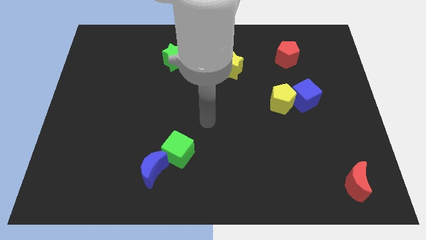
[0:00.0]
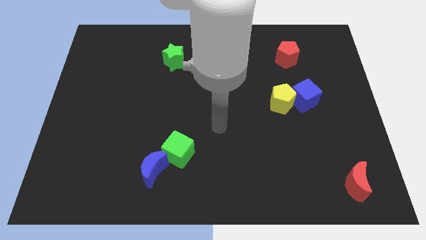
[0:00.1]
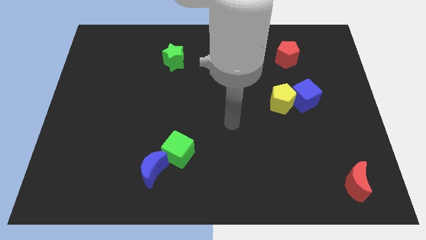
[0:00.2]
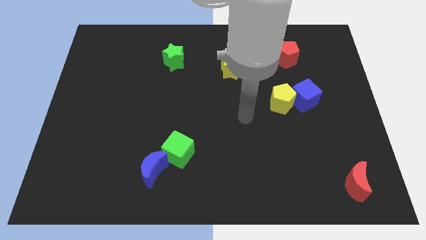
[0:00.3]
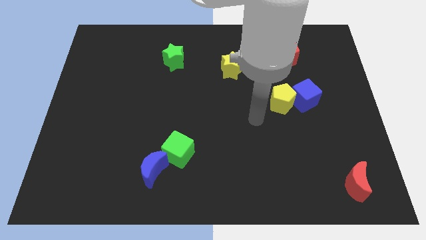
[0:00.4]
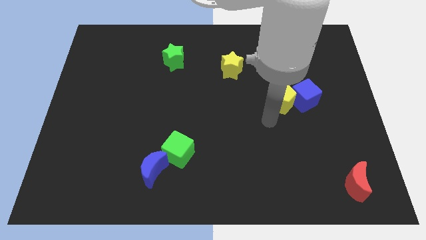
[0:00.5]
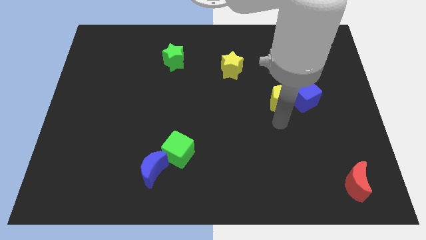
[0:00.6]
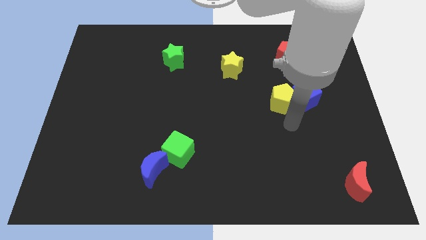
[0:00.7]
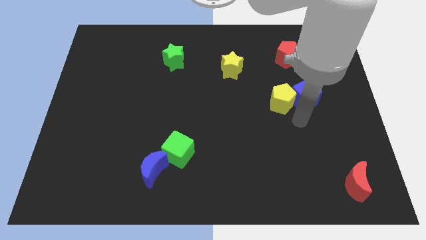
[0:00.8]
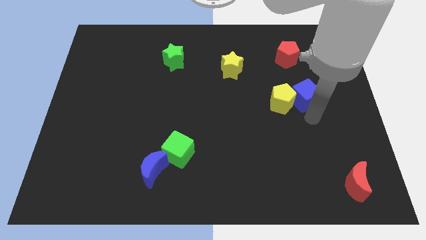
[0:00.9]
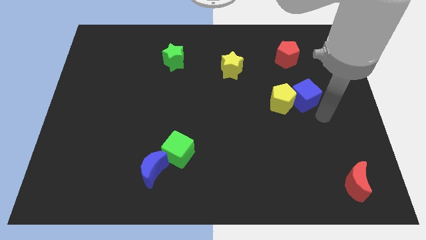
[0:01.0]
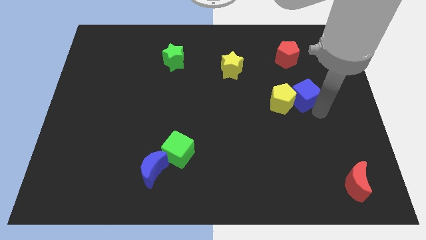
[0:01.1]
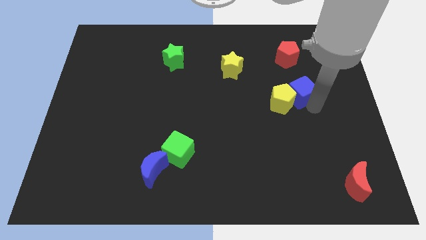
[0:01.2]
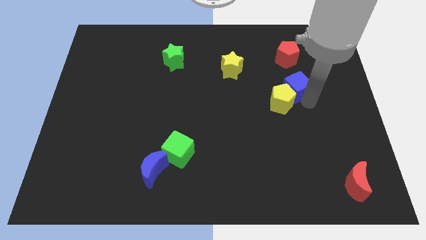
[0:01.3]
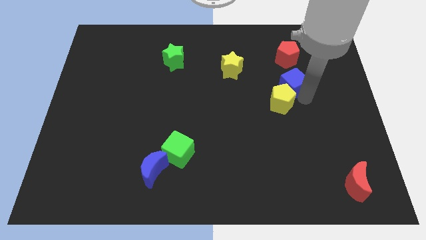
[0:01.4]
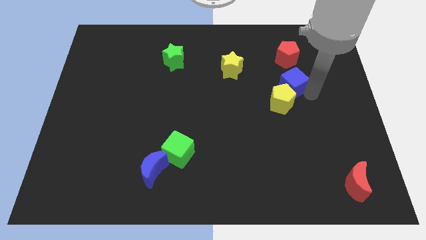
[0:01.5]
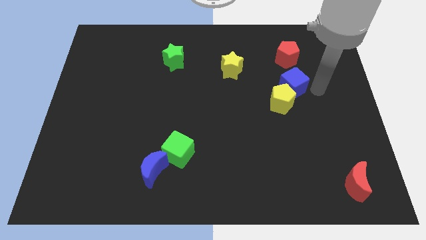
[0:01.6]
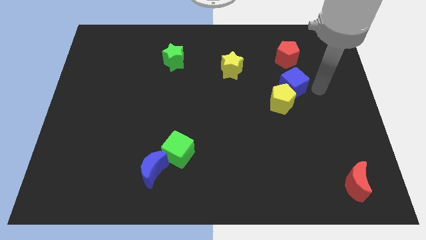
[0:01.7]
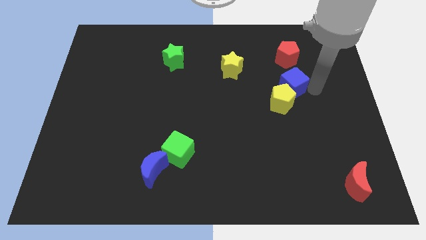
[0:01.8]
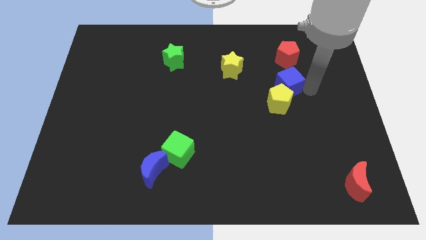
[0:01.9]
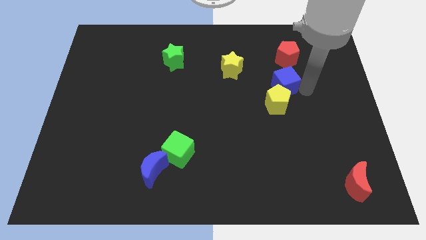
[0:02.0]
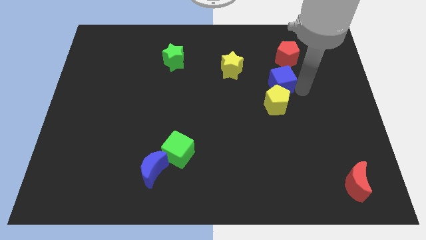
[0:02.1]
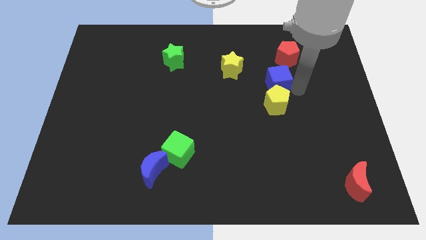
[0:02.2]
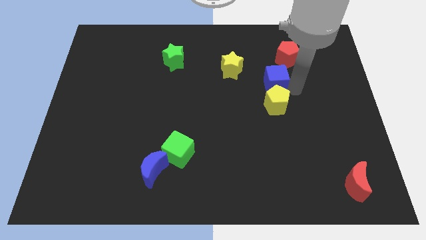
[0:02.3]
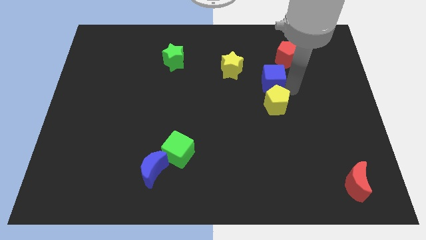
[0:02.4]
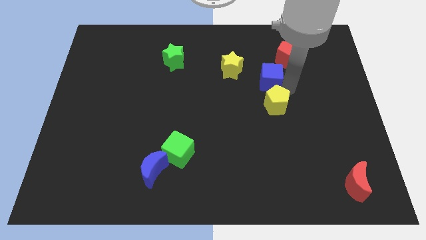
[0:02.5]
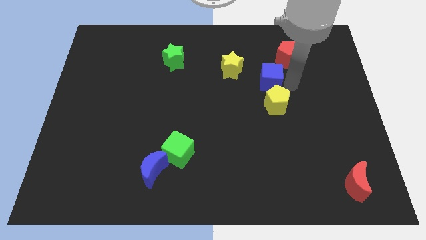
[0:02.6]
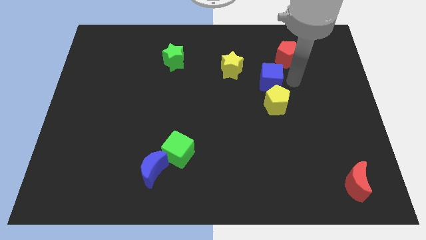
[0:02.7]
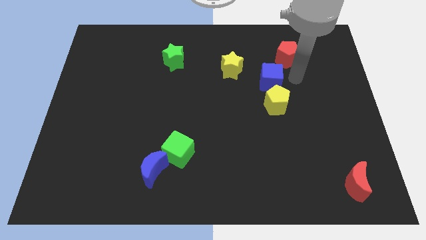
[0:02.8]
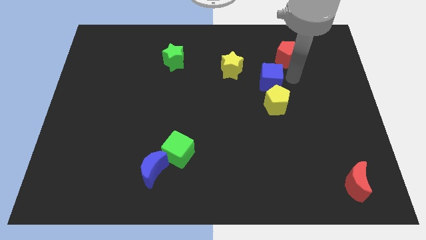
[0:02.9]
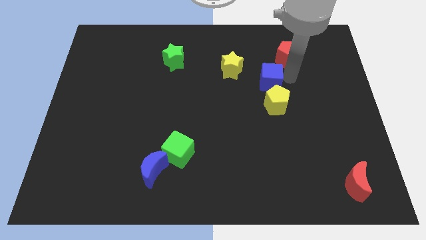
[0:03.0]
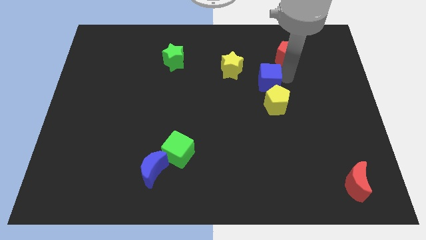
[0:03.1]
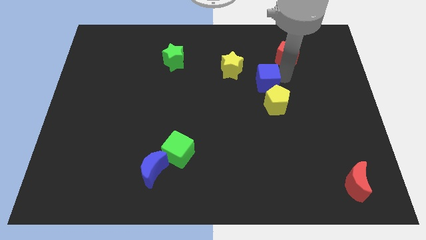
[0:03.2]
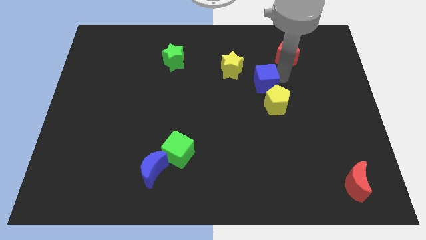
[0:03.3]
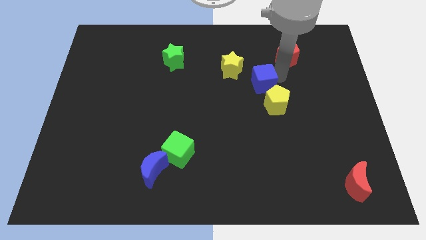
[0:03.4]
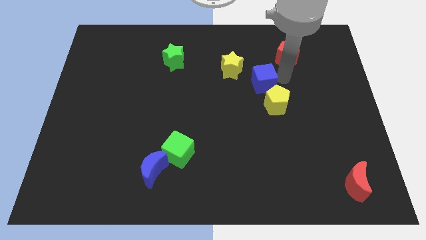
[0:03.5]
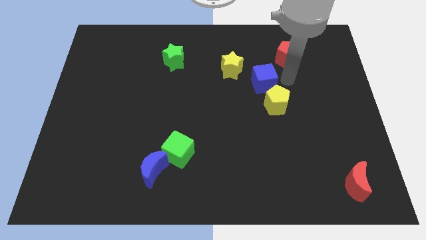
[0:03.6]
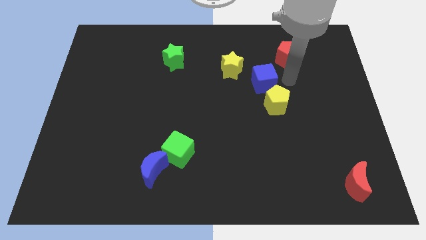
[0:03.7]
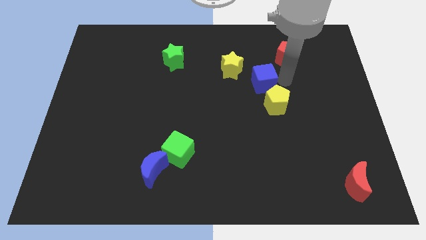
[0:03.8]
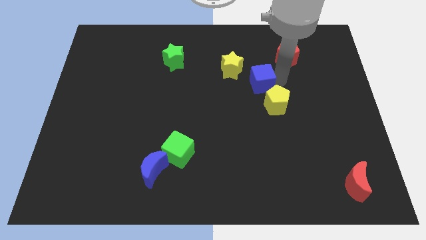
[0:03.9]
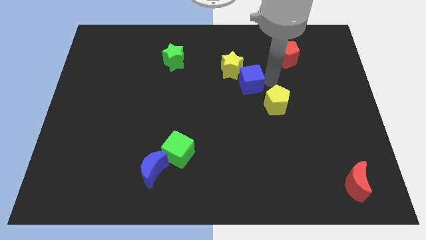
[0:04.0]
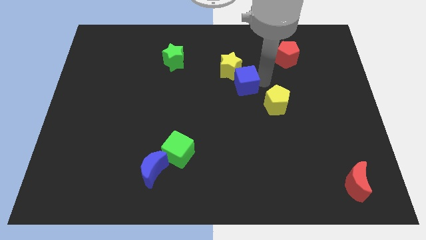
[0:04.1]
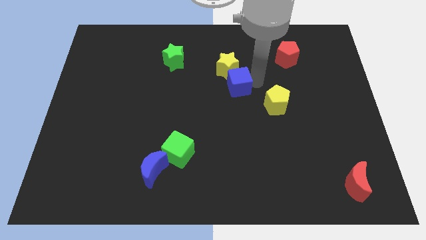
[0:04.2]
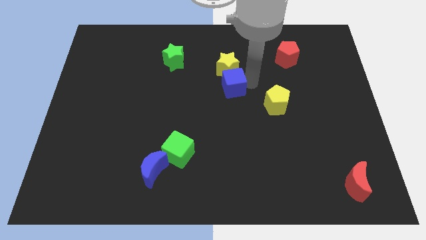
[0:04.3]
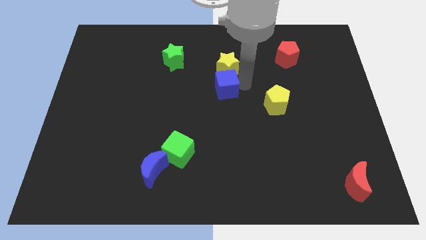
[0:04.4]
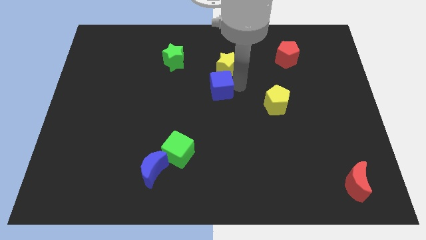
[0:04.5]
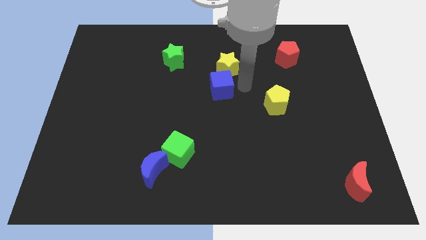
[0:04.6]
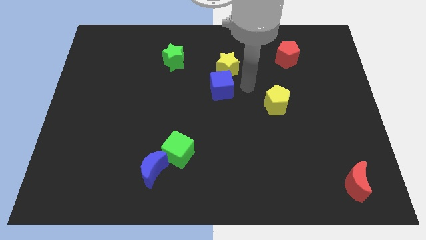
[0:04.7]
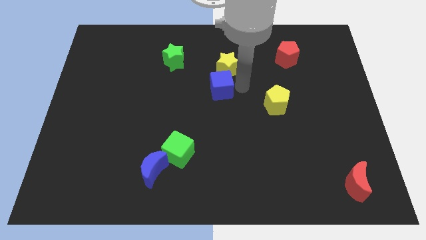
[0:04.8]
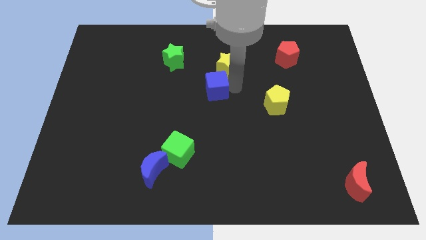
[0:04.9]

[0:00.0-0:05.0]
push the blue cube left

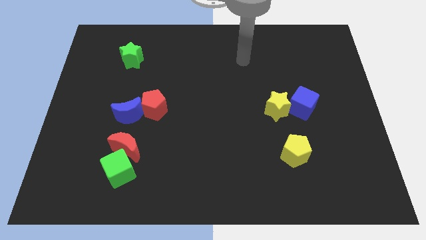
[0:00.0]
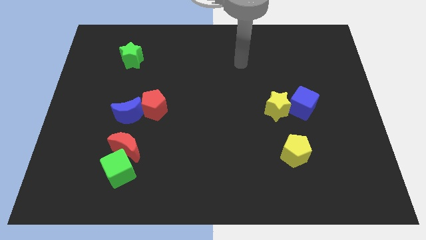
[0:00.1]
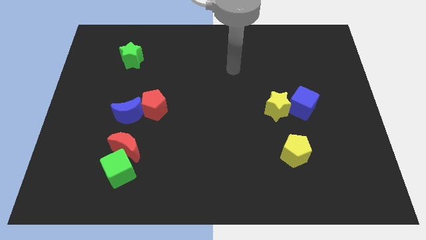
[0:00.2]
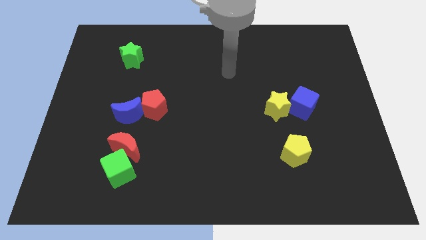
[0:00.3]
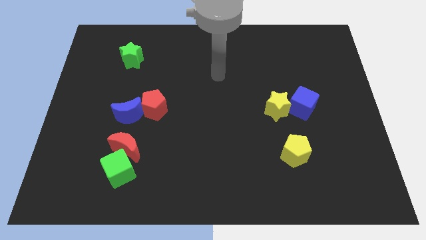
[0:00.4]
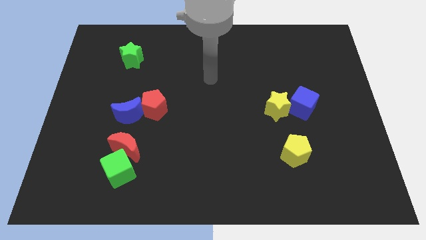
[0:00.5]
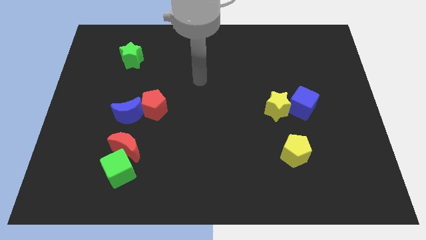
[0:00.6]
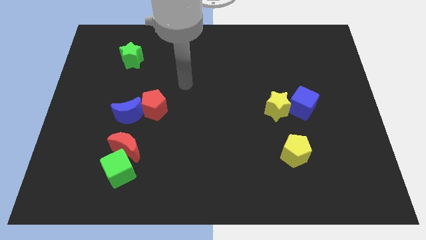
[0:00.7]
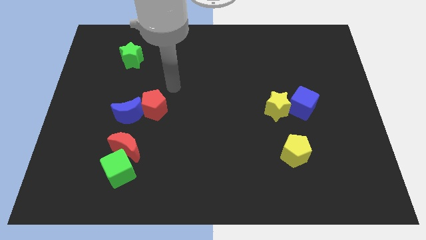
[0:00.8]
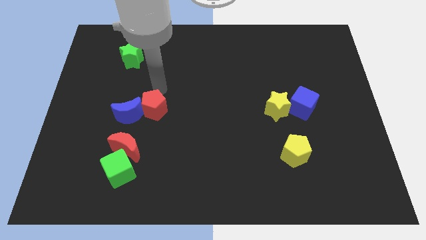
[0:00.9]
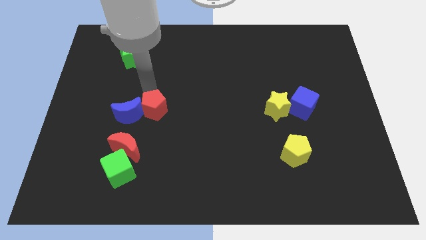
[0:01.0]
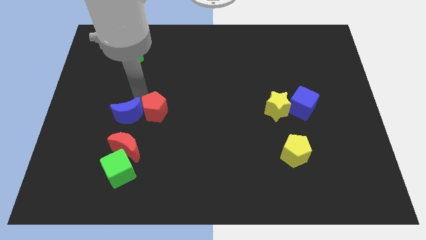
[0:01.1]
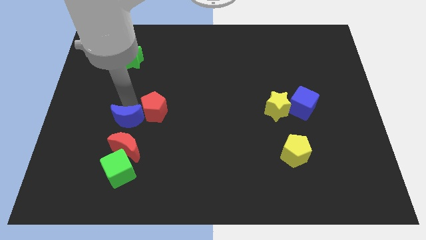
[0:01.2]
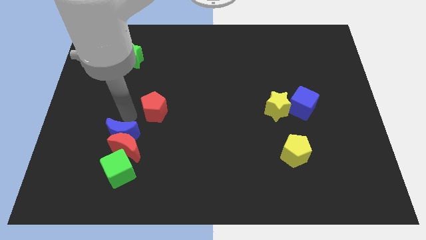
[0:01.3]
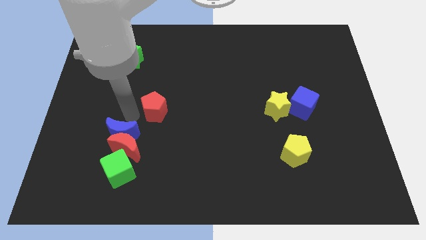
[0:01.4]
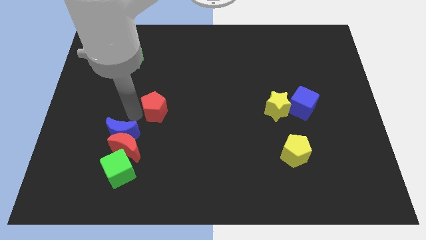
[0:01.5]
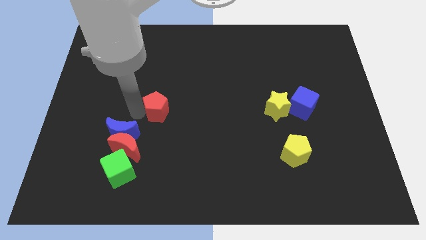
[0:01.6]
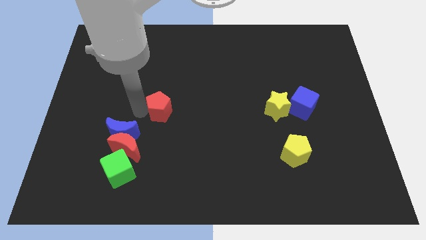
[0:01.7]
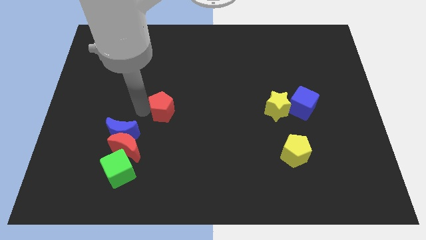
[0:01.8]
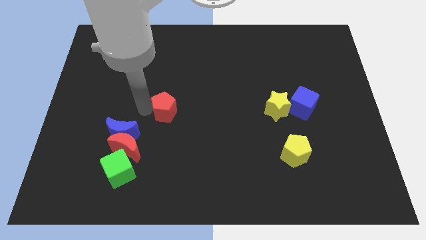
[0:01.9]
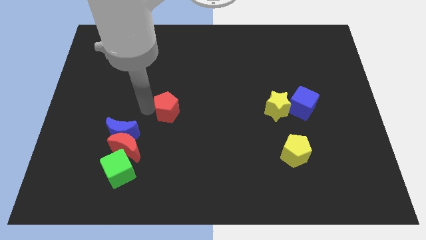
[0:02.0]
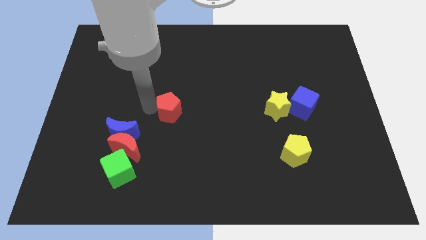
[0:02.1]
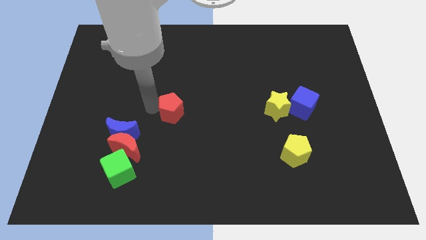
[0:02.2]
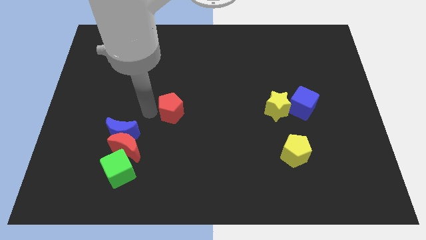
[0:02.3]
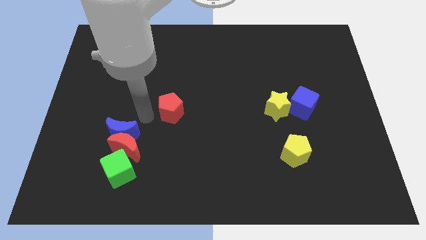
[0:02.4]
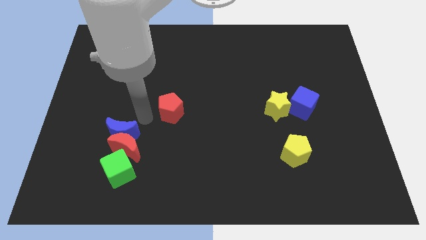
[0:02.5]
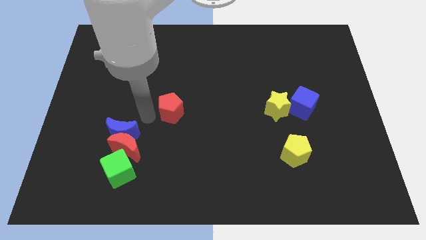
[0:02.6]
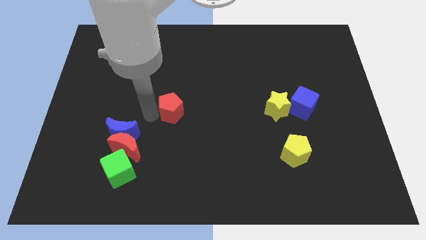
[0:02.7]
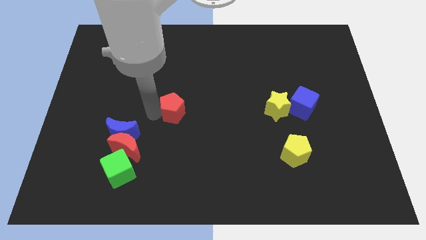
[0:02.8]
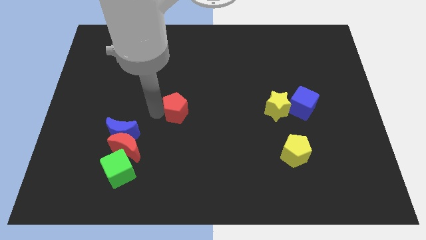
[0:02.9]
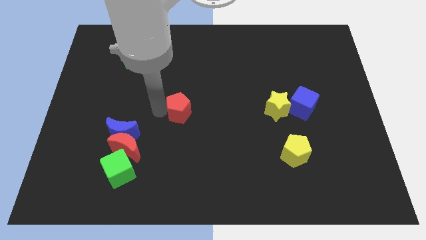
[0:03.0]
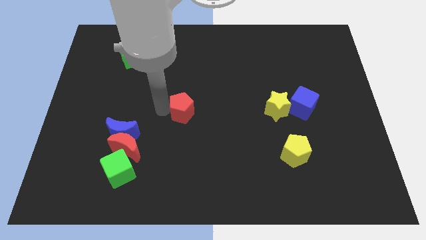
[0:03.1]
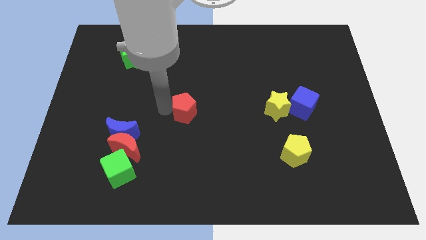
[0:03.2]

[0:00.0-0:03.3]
slide the red pentagon to the right a little bit

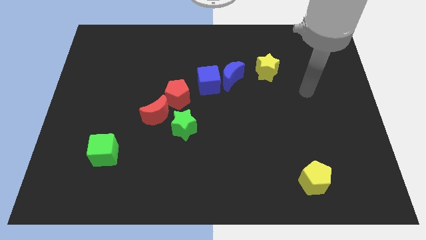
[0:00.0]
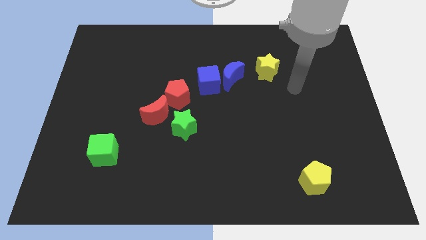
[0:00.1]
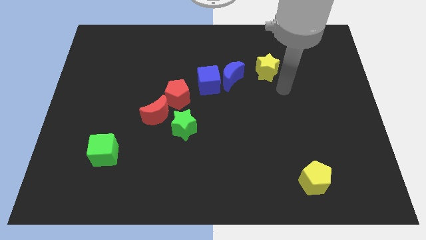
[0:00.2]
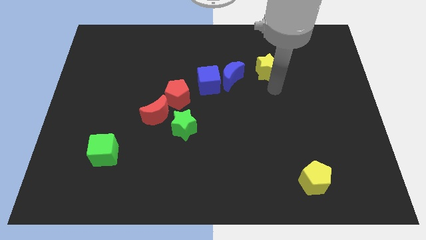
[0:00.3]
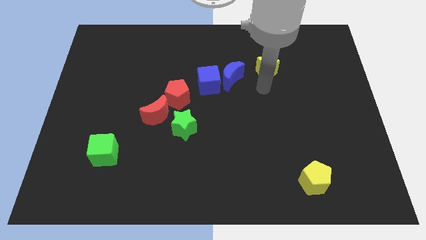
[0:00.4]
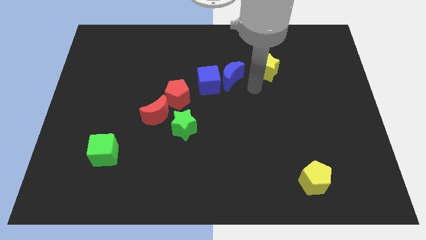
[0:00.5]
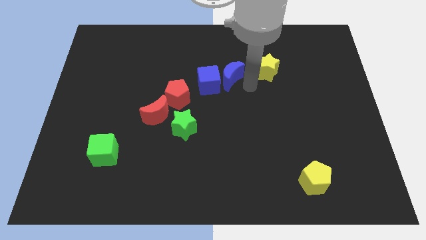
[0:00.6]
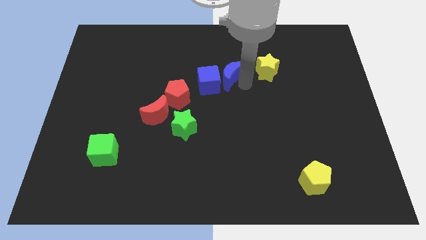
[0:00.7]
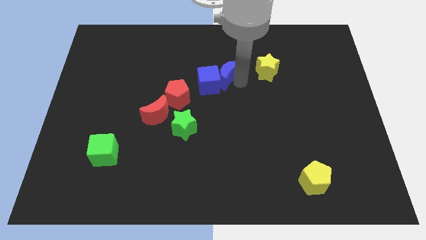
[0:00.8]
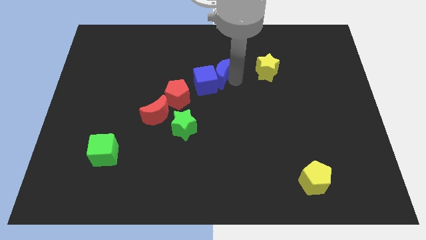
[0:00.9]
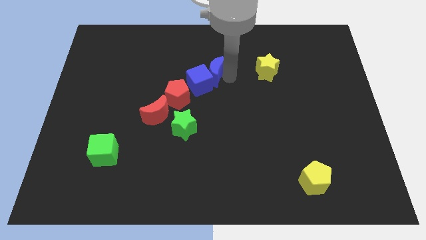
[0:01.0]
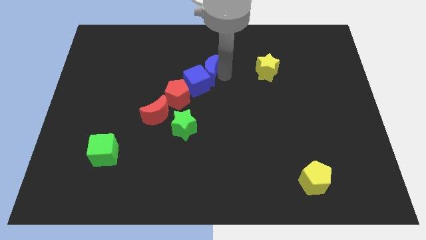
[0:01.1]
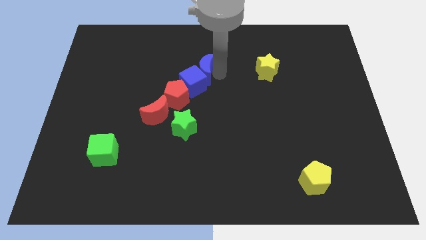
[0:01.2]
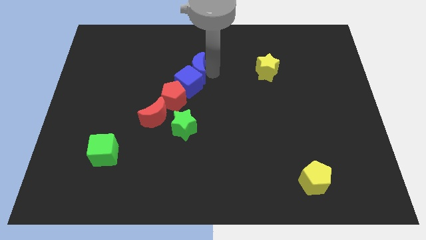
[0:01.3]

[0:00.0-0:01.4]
slightly slide the blue moon left
